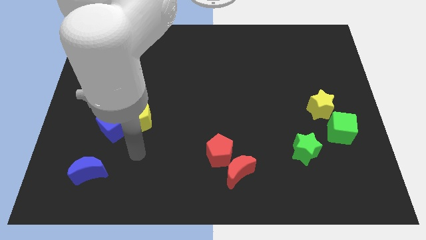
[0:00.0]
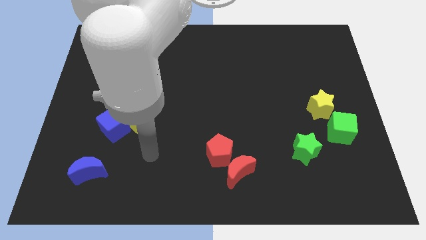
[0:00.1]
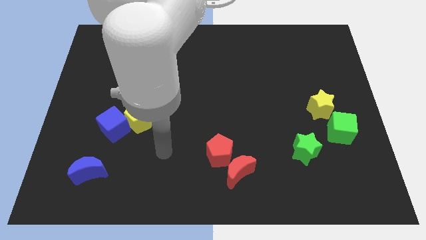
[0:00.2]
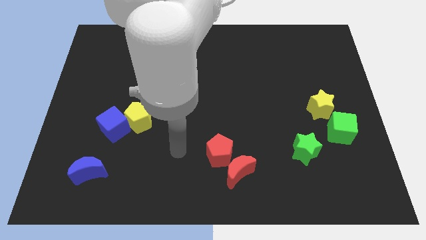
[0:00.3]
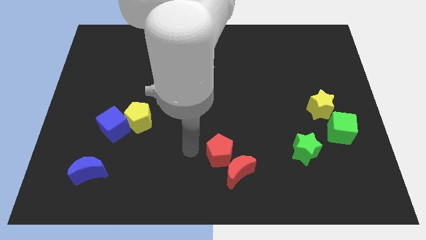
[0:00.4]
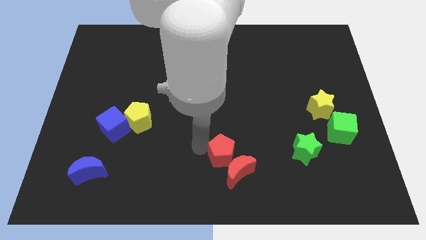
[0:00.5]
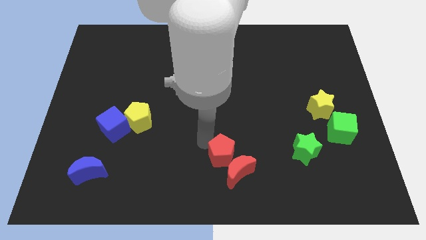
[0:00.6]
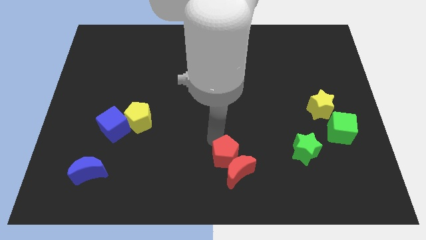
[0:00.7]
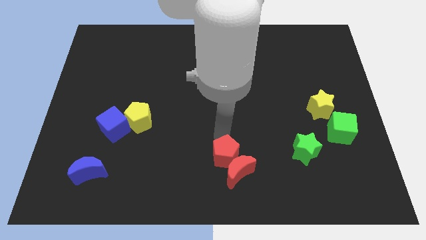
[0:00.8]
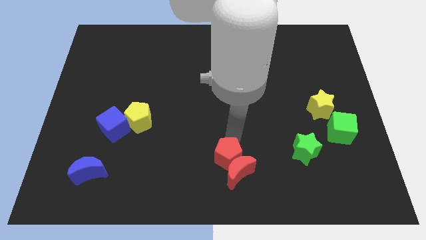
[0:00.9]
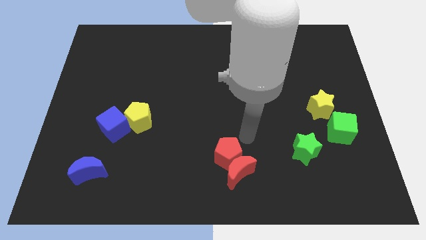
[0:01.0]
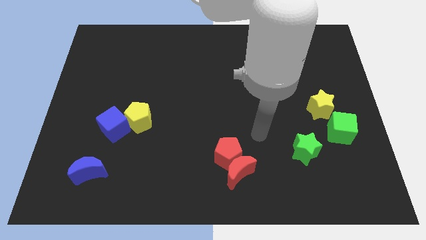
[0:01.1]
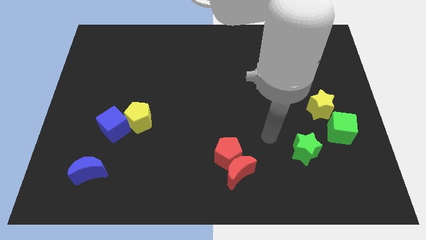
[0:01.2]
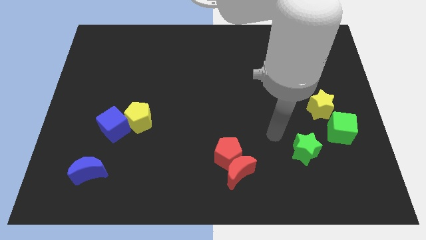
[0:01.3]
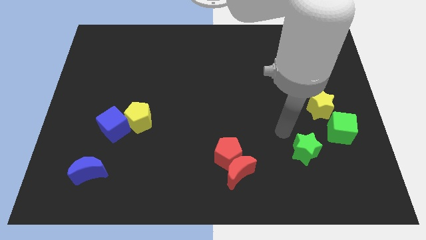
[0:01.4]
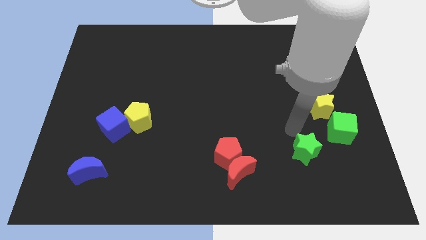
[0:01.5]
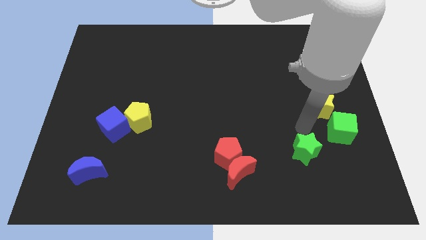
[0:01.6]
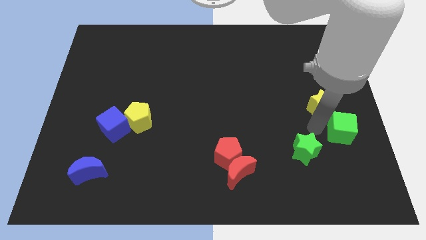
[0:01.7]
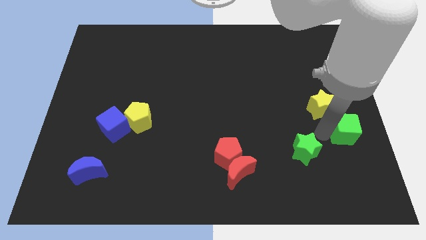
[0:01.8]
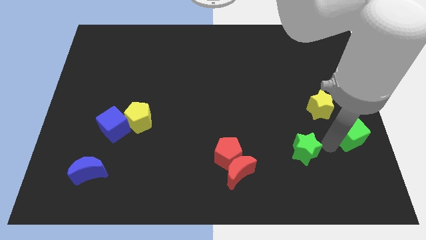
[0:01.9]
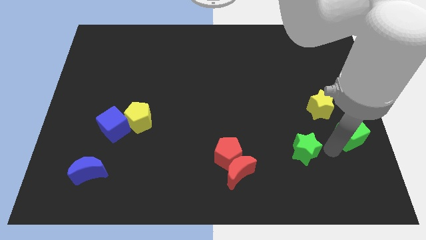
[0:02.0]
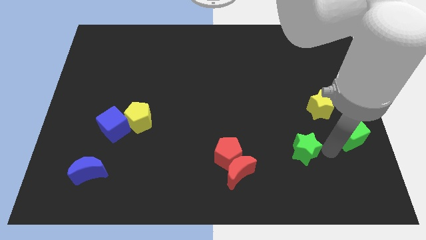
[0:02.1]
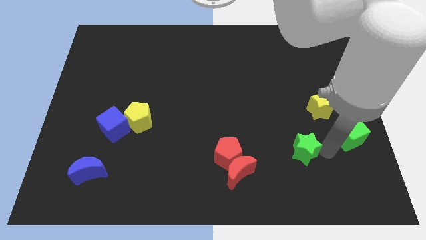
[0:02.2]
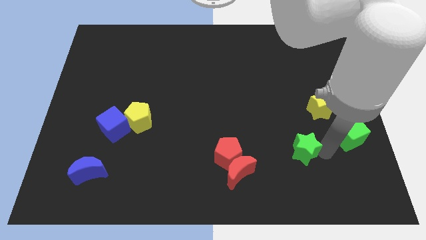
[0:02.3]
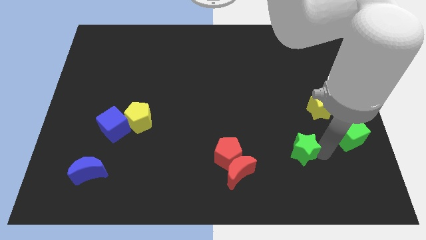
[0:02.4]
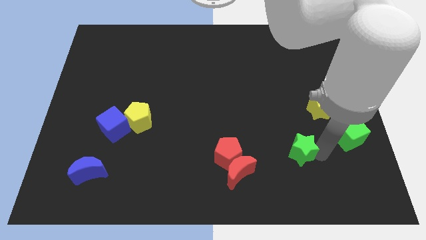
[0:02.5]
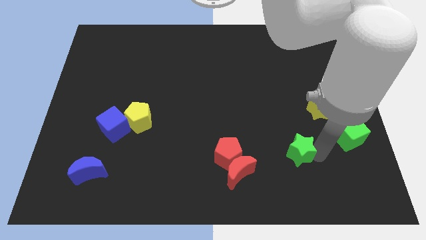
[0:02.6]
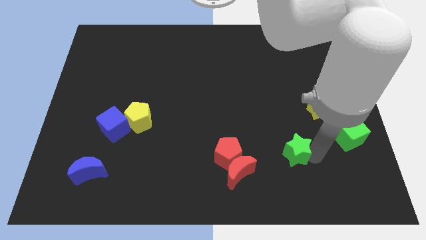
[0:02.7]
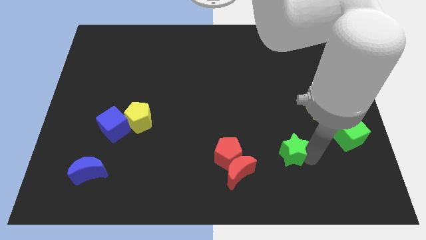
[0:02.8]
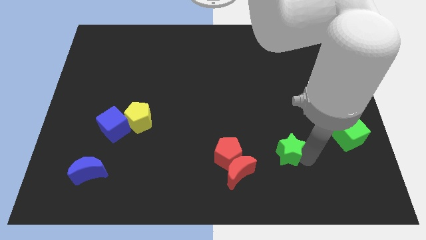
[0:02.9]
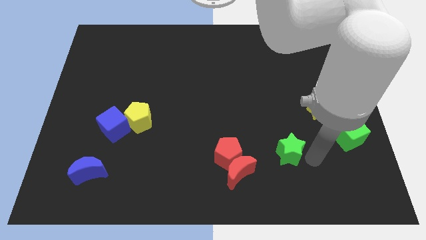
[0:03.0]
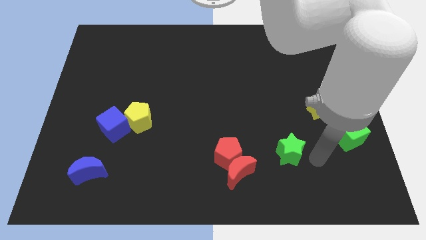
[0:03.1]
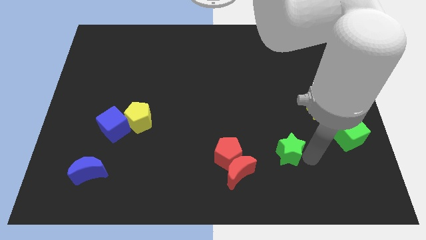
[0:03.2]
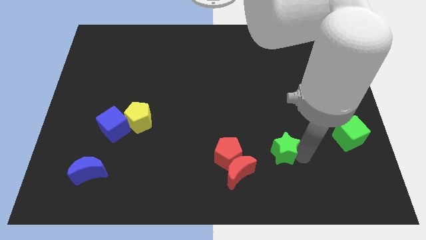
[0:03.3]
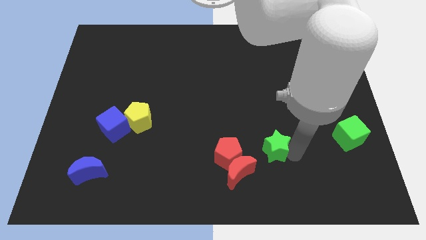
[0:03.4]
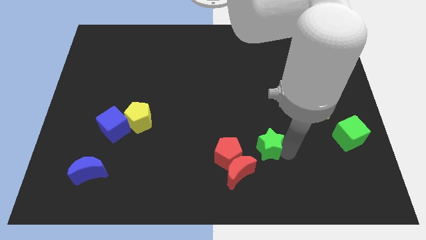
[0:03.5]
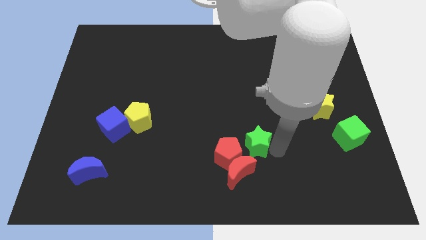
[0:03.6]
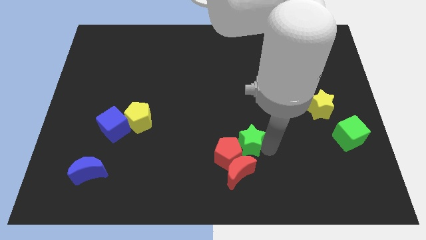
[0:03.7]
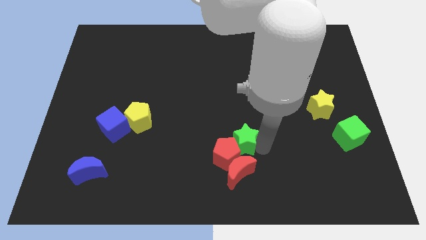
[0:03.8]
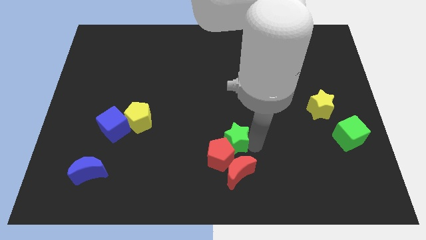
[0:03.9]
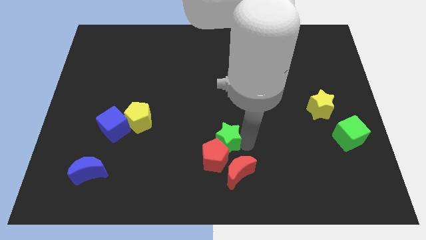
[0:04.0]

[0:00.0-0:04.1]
slide the green star to the top left side of the red moon

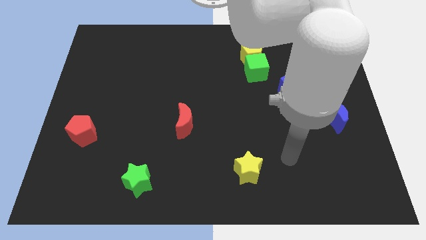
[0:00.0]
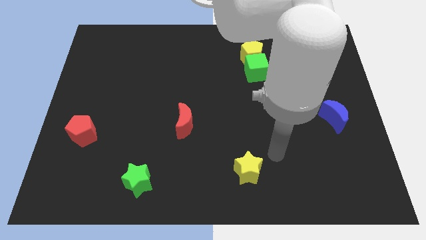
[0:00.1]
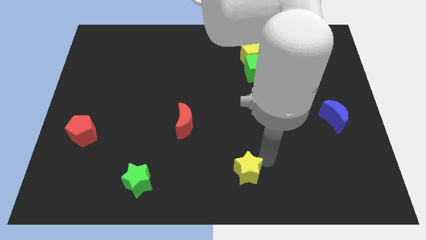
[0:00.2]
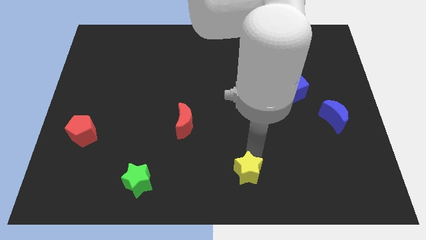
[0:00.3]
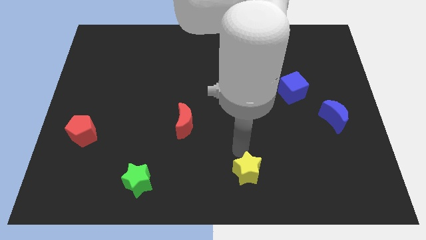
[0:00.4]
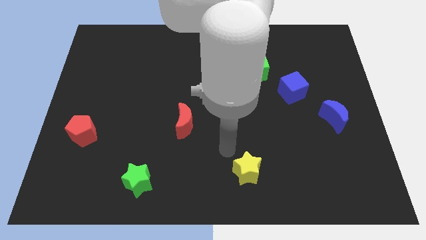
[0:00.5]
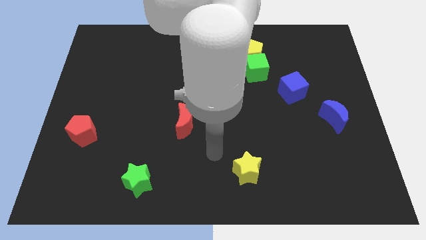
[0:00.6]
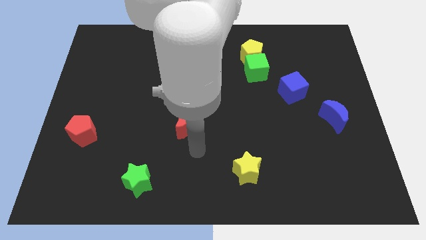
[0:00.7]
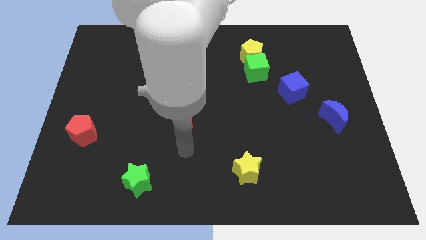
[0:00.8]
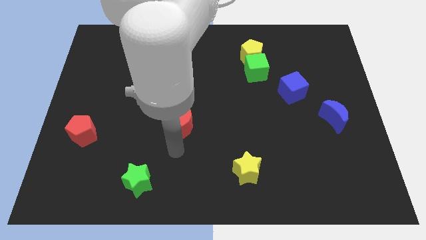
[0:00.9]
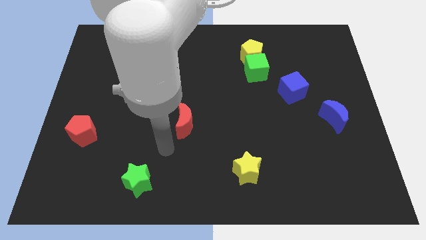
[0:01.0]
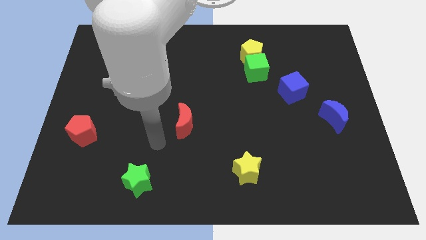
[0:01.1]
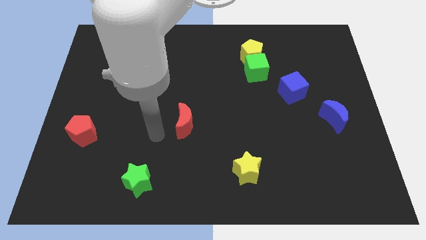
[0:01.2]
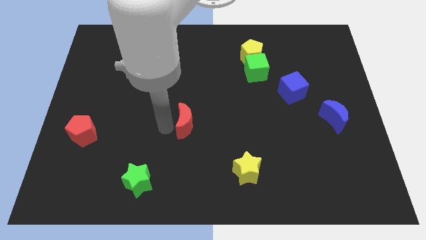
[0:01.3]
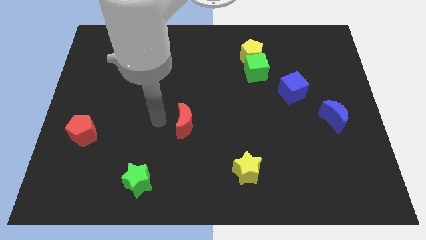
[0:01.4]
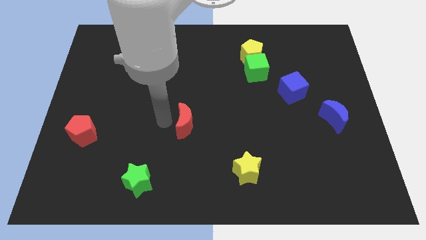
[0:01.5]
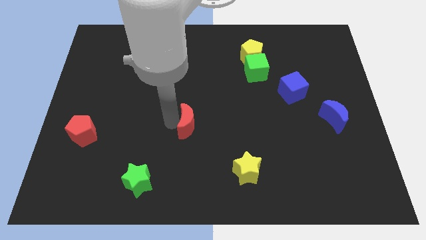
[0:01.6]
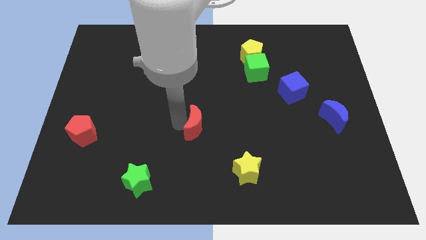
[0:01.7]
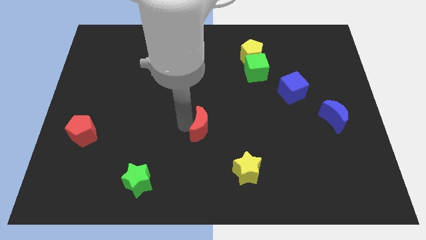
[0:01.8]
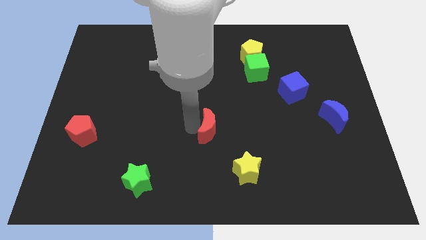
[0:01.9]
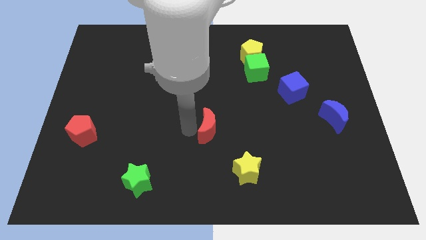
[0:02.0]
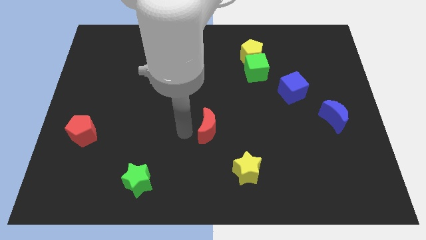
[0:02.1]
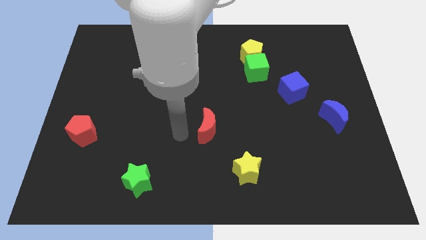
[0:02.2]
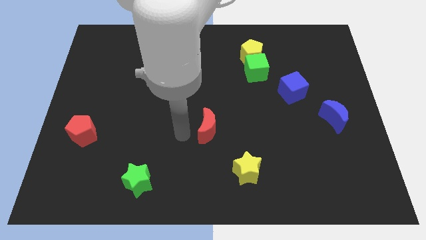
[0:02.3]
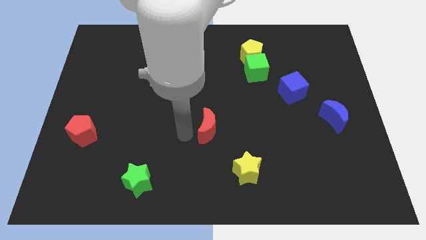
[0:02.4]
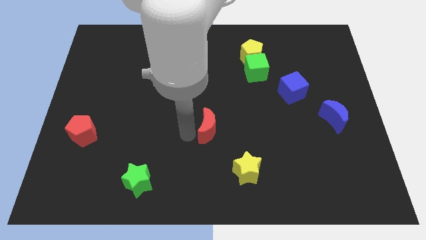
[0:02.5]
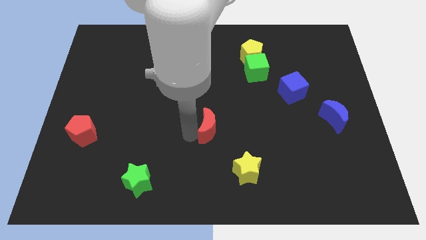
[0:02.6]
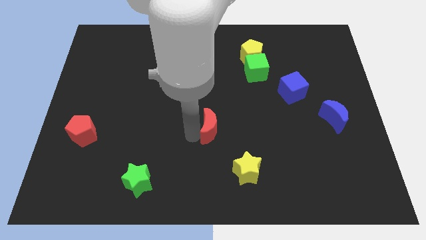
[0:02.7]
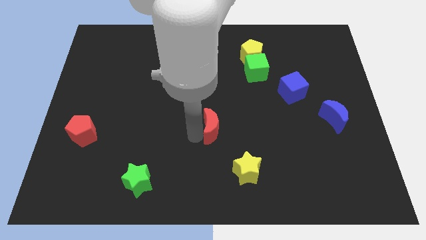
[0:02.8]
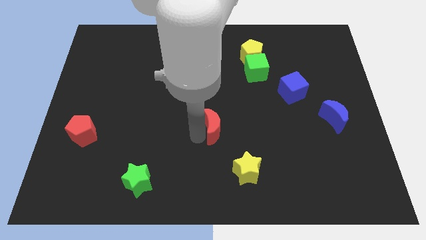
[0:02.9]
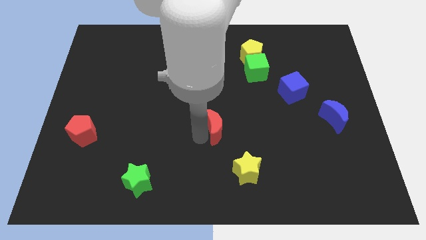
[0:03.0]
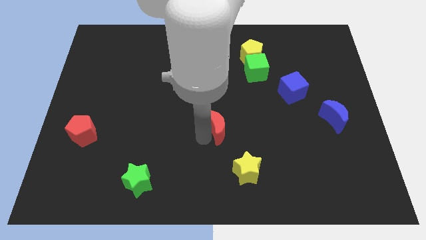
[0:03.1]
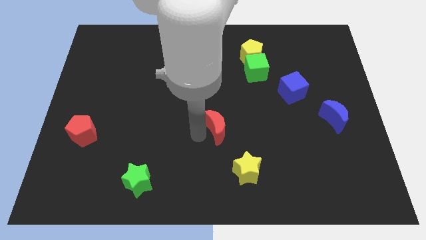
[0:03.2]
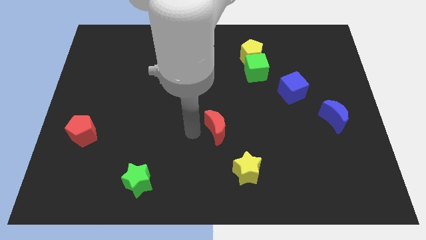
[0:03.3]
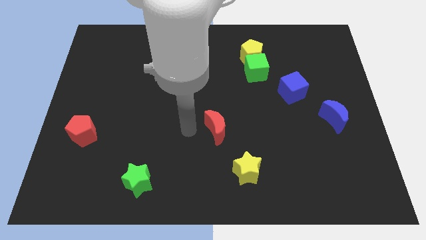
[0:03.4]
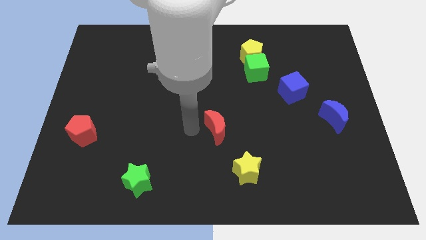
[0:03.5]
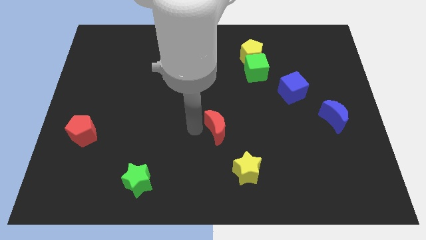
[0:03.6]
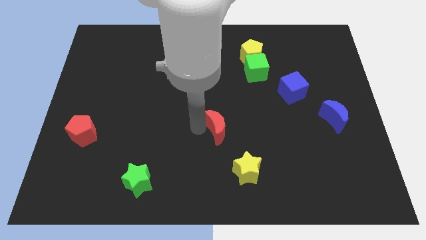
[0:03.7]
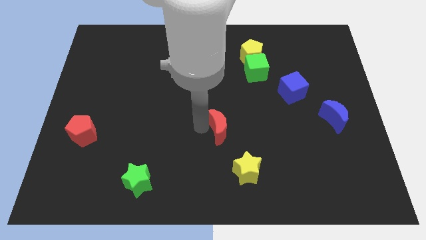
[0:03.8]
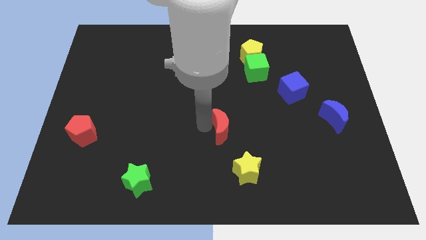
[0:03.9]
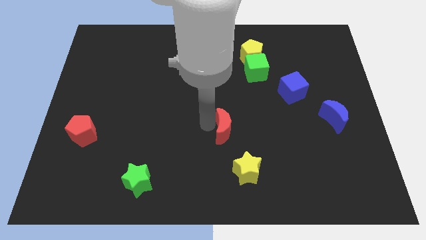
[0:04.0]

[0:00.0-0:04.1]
push the red moon above the yellow star
